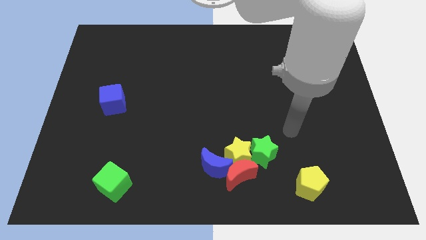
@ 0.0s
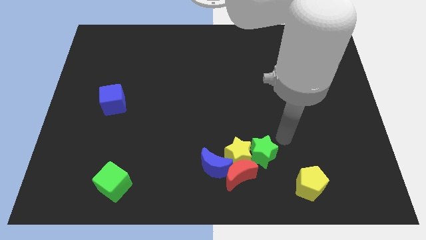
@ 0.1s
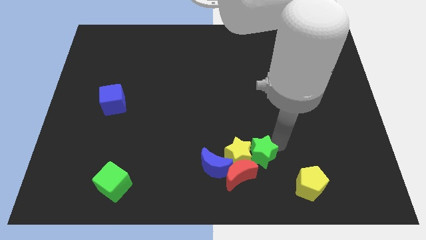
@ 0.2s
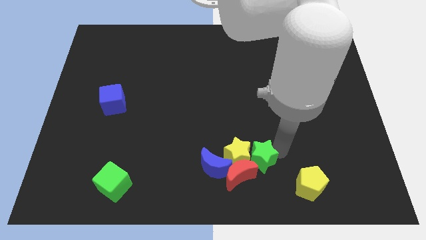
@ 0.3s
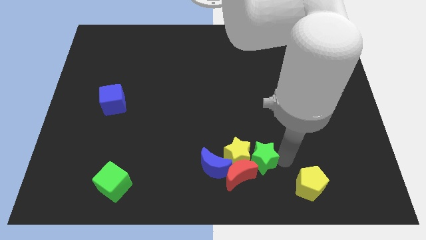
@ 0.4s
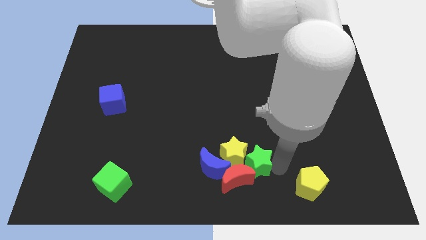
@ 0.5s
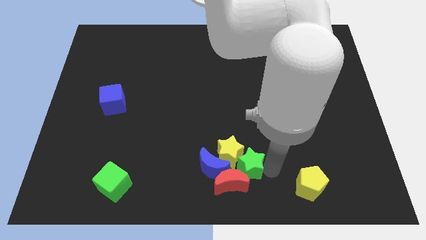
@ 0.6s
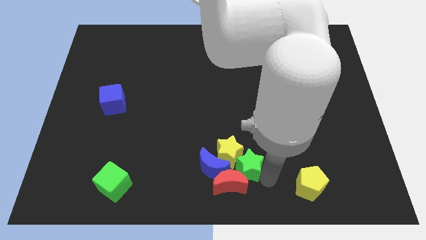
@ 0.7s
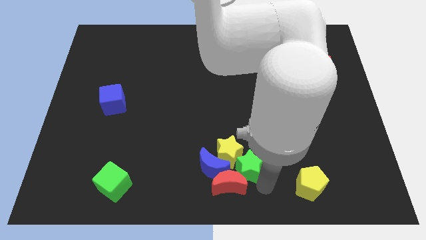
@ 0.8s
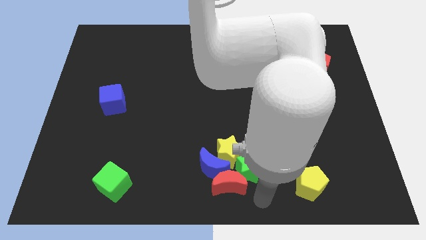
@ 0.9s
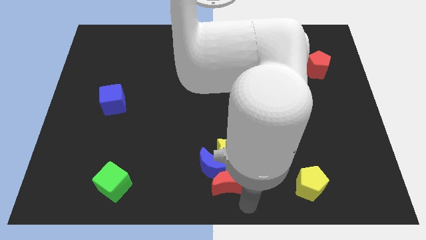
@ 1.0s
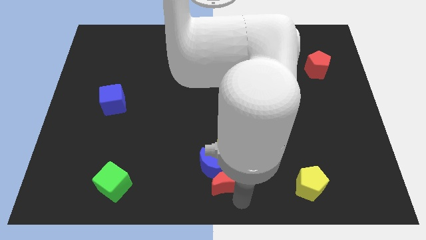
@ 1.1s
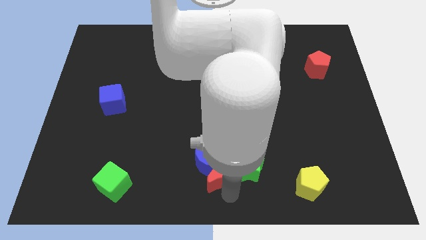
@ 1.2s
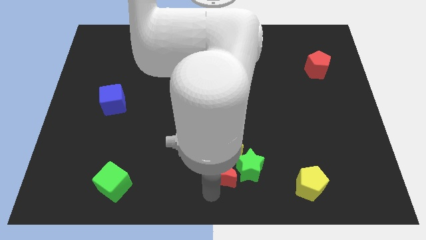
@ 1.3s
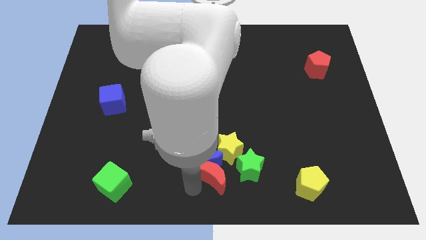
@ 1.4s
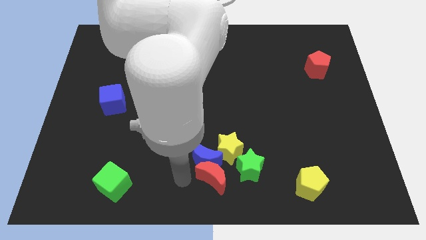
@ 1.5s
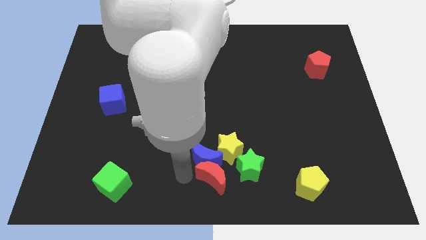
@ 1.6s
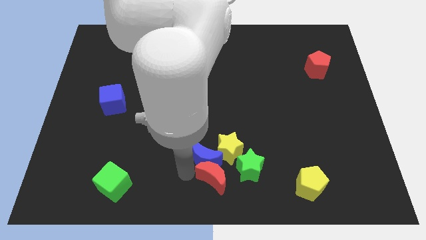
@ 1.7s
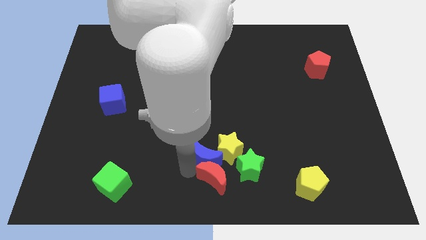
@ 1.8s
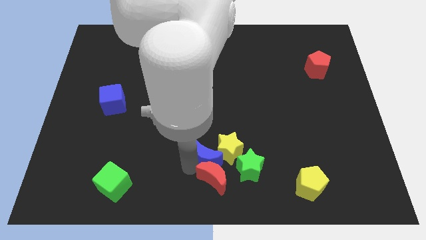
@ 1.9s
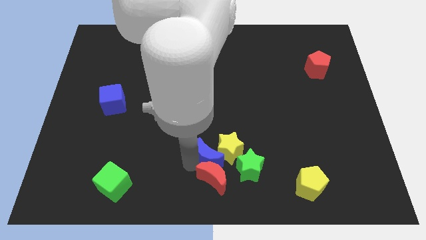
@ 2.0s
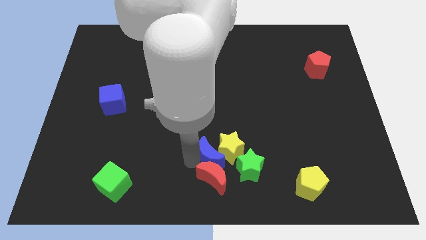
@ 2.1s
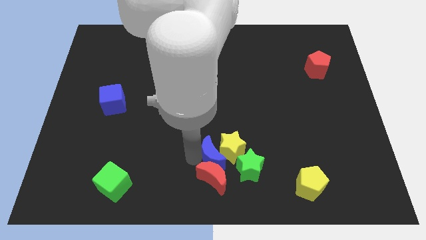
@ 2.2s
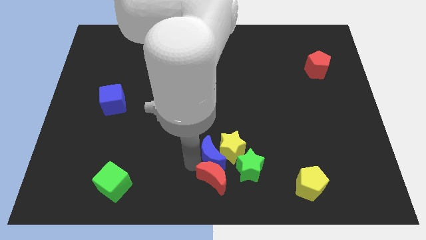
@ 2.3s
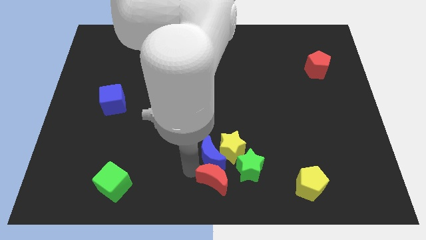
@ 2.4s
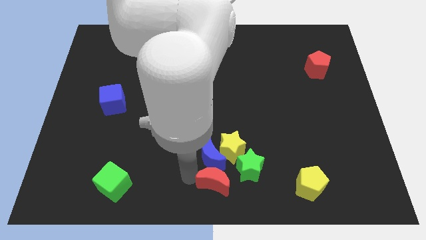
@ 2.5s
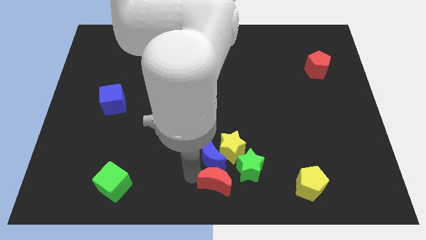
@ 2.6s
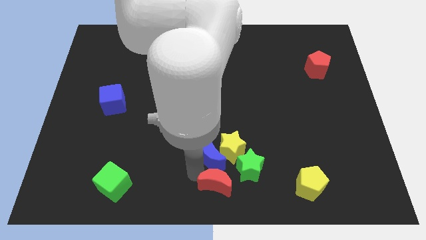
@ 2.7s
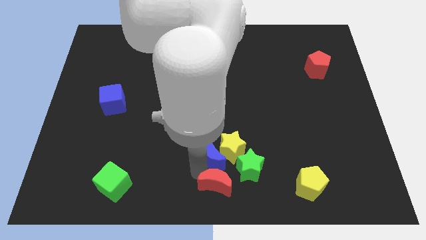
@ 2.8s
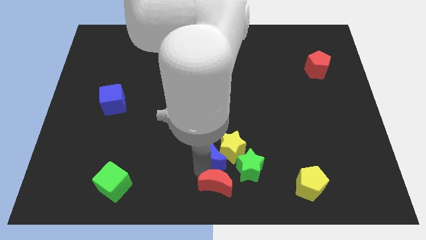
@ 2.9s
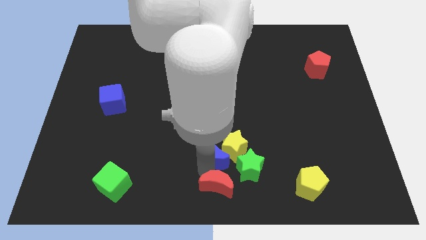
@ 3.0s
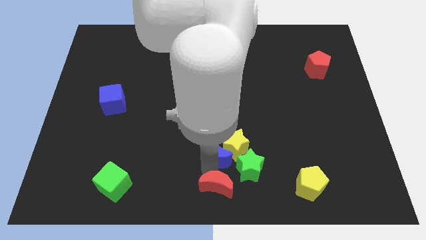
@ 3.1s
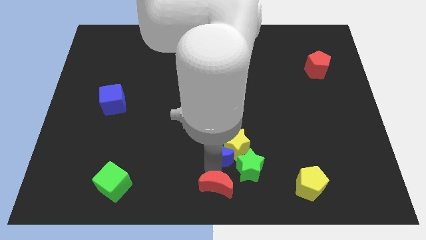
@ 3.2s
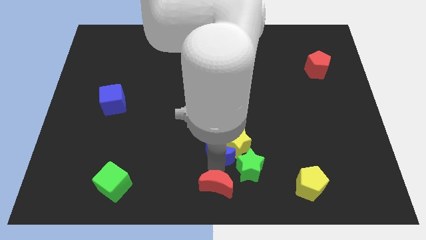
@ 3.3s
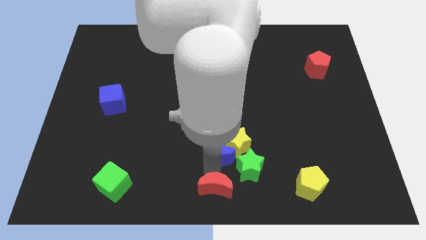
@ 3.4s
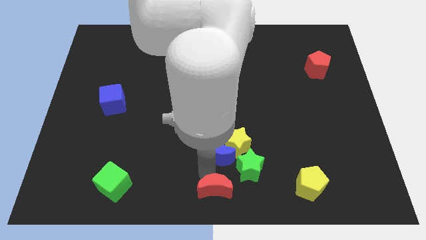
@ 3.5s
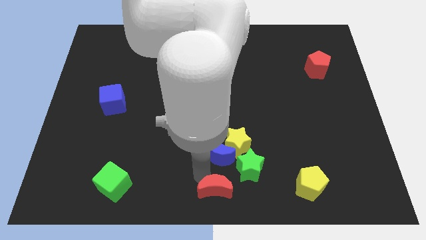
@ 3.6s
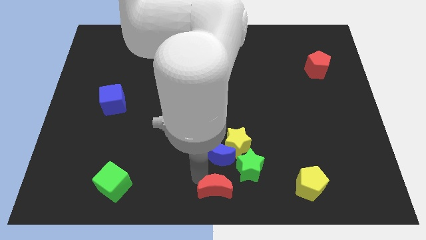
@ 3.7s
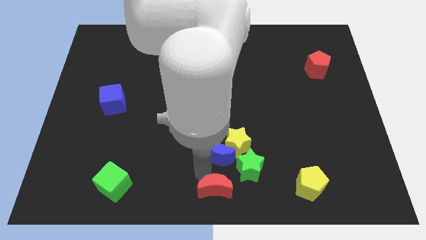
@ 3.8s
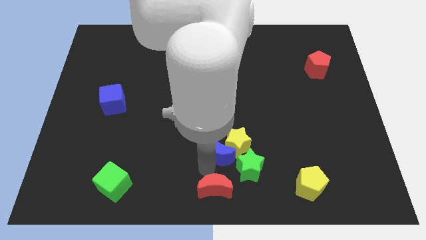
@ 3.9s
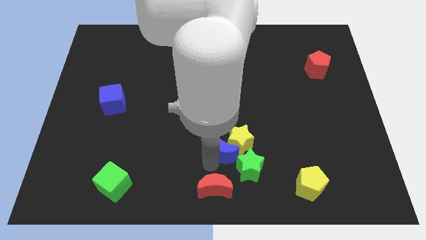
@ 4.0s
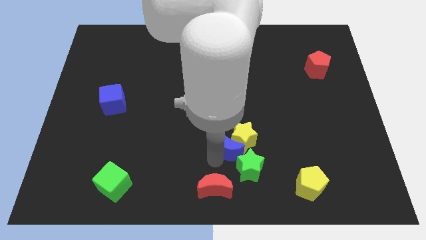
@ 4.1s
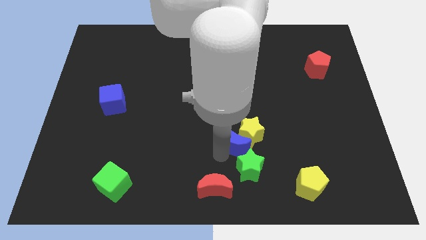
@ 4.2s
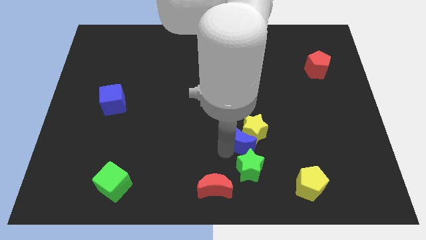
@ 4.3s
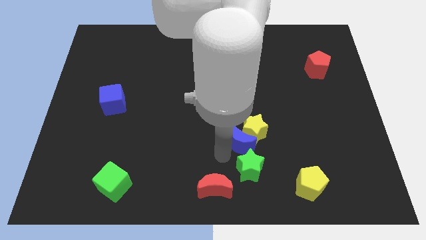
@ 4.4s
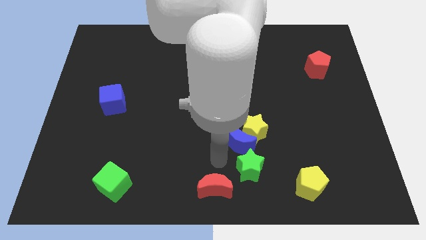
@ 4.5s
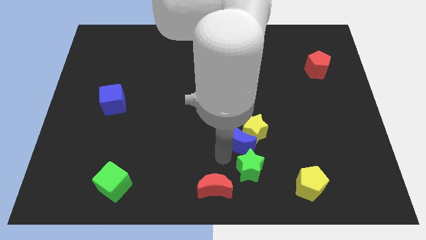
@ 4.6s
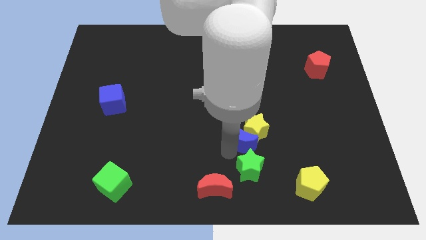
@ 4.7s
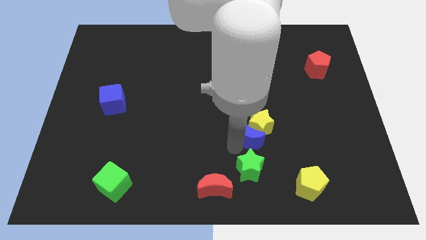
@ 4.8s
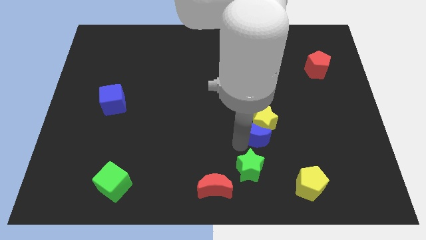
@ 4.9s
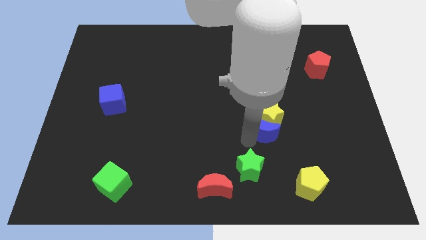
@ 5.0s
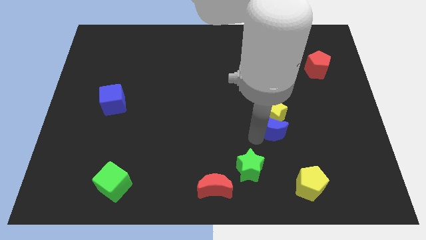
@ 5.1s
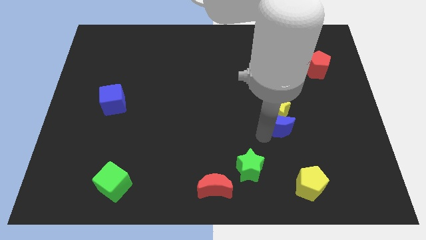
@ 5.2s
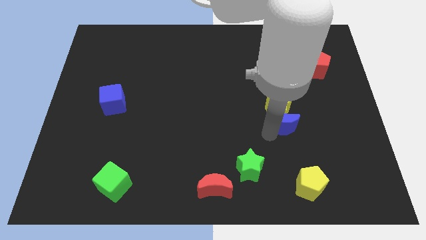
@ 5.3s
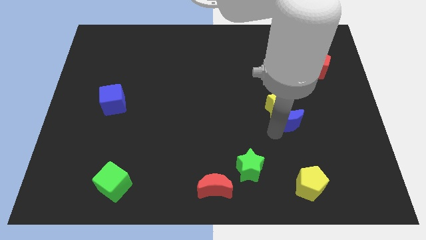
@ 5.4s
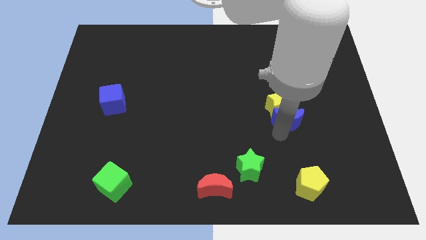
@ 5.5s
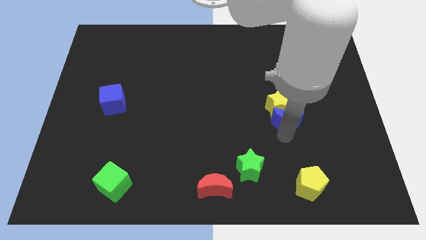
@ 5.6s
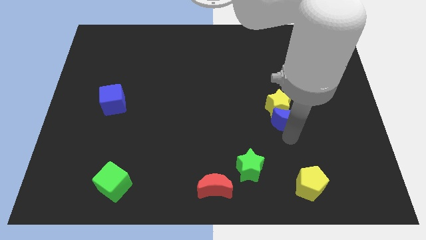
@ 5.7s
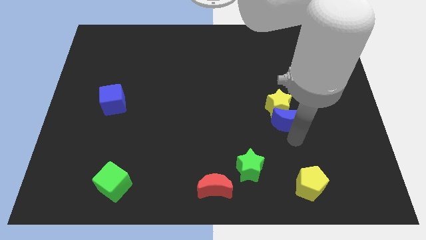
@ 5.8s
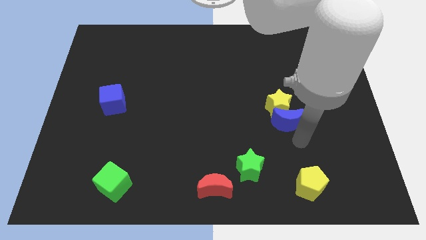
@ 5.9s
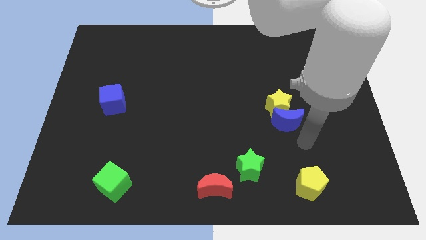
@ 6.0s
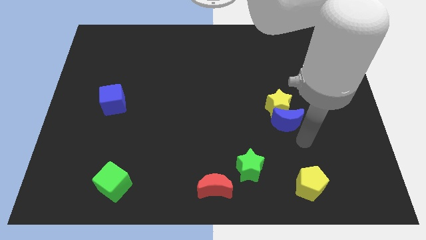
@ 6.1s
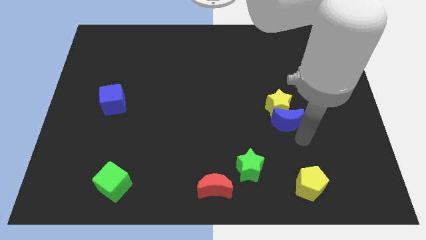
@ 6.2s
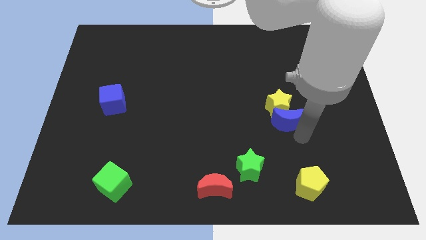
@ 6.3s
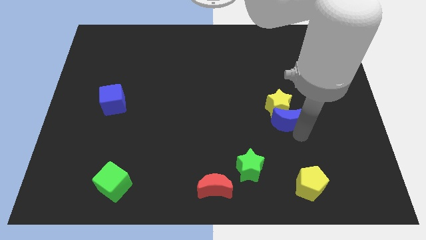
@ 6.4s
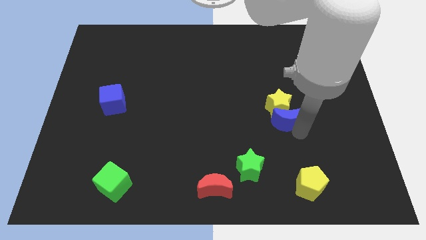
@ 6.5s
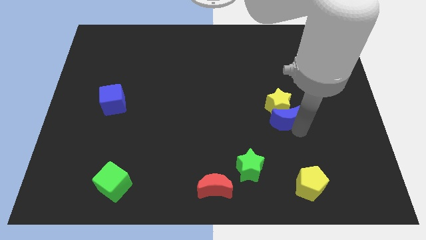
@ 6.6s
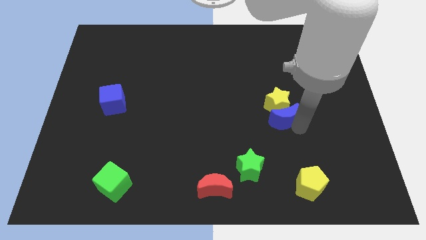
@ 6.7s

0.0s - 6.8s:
push the blue moon diagonally upwards and to the right

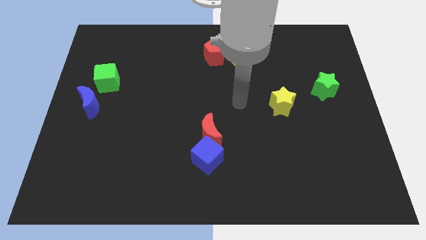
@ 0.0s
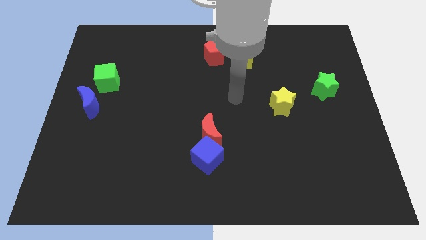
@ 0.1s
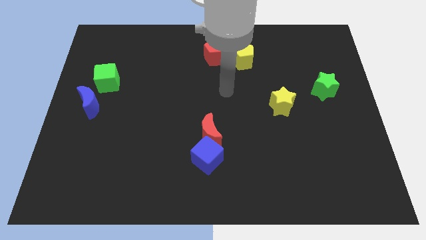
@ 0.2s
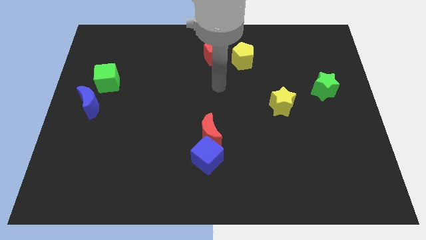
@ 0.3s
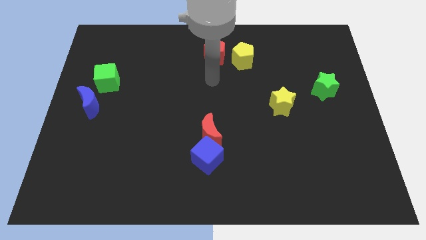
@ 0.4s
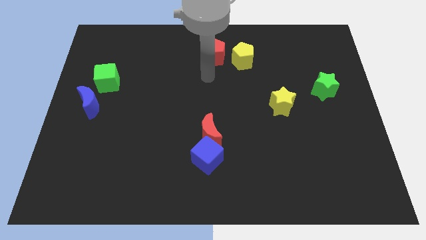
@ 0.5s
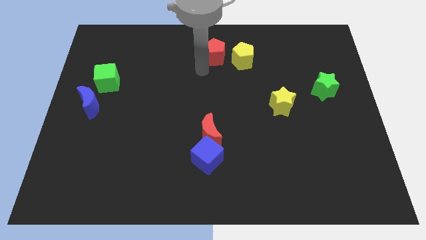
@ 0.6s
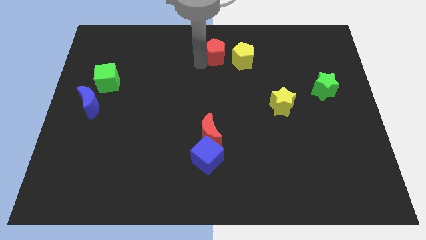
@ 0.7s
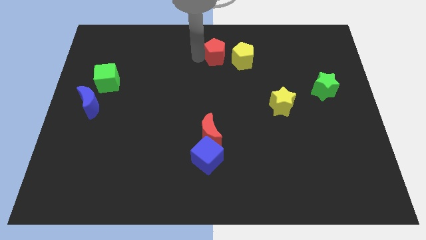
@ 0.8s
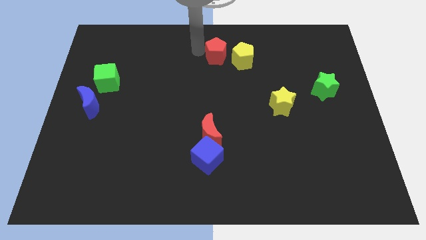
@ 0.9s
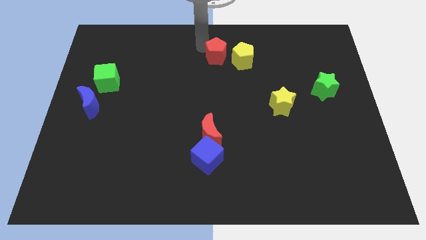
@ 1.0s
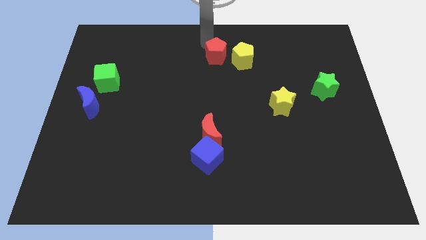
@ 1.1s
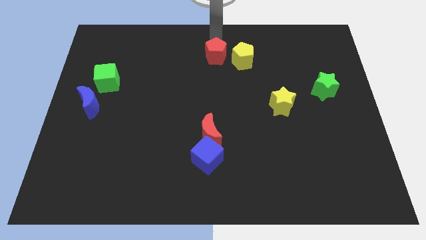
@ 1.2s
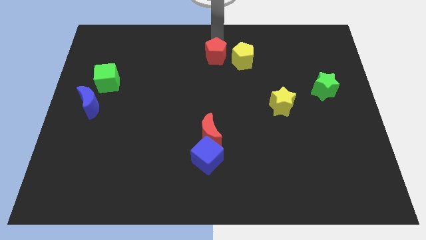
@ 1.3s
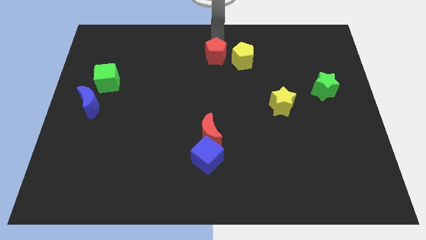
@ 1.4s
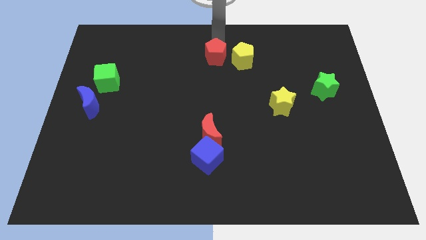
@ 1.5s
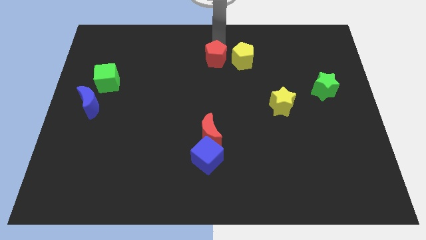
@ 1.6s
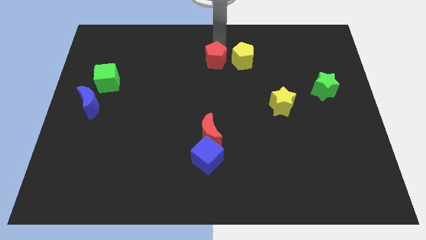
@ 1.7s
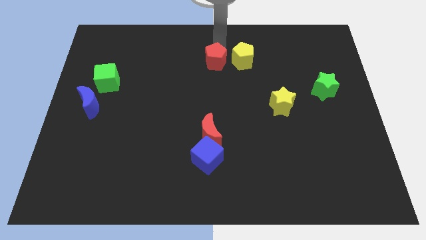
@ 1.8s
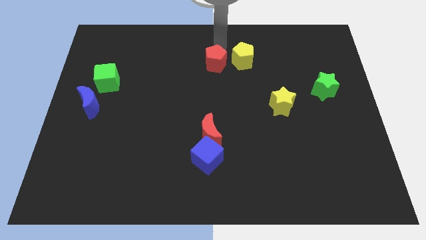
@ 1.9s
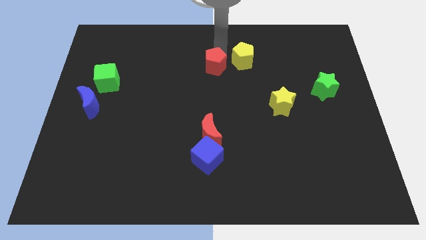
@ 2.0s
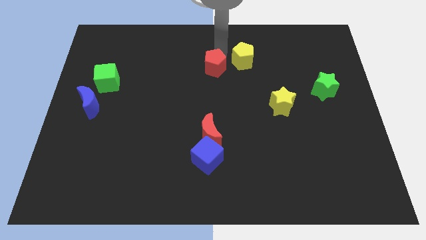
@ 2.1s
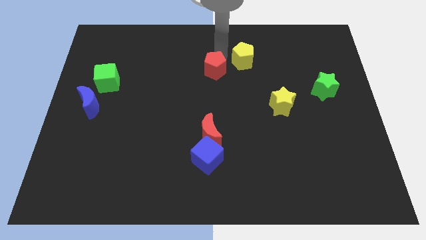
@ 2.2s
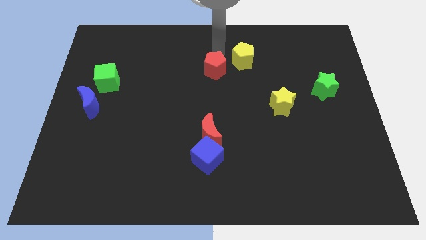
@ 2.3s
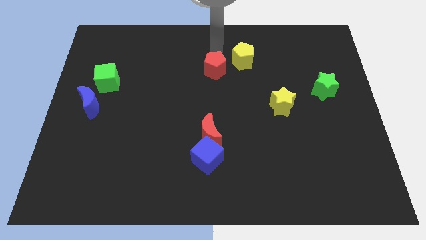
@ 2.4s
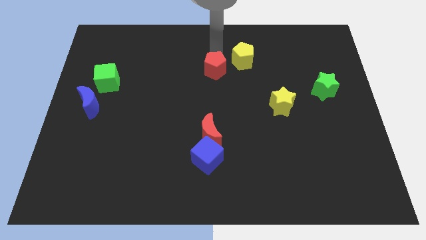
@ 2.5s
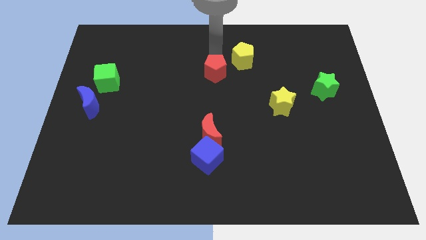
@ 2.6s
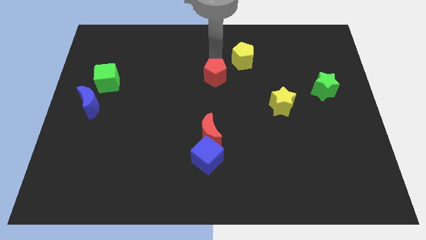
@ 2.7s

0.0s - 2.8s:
move the red pentagon down slightly
